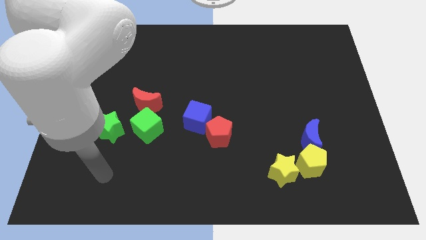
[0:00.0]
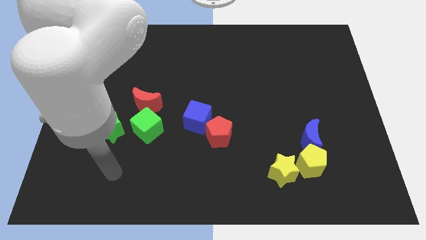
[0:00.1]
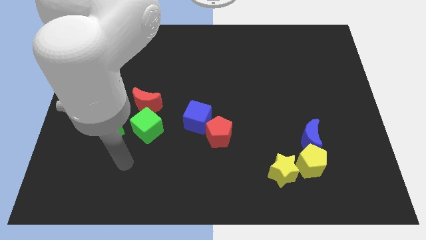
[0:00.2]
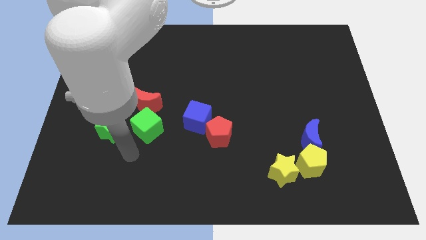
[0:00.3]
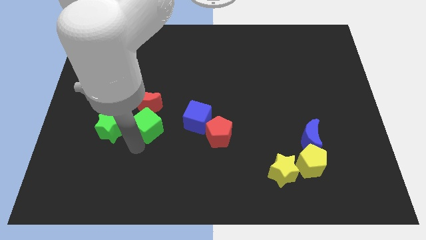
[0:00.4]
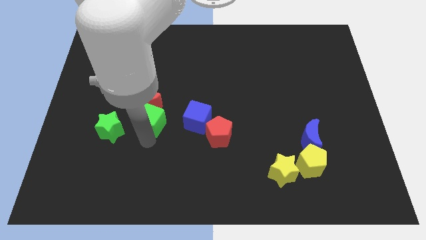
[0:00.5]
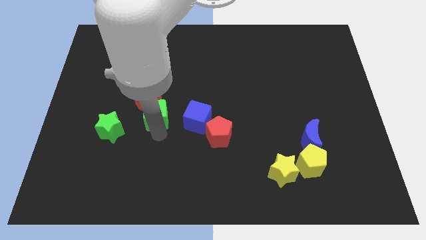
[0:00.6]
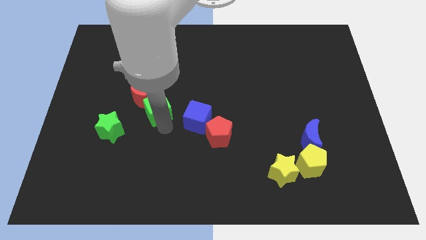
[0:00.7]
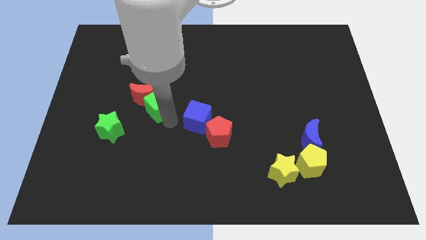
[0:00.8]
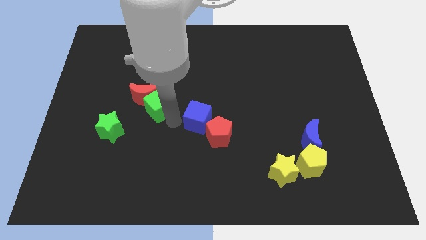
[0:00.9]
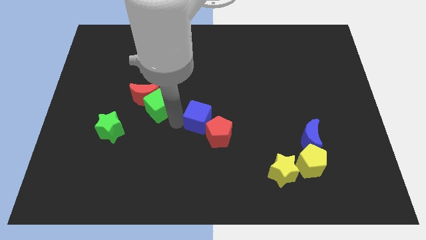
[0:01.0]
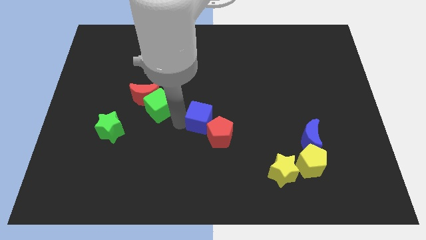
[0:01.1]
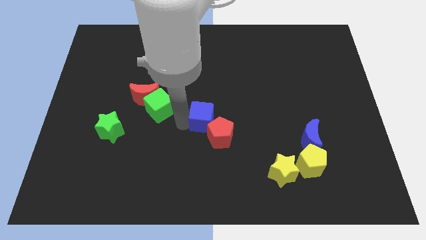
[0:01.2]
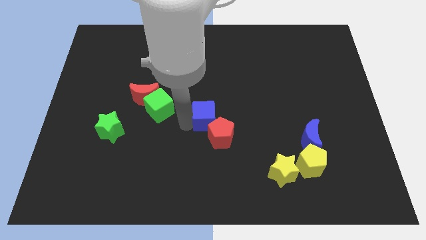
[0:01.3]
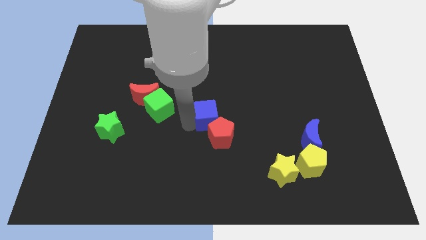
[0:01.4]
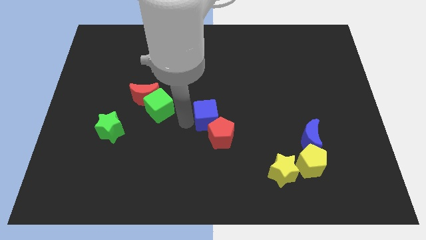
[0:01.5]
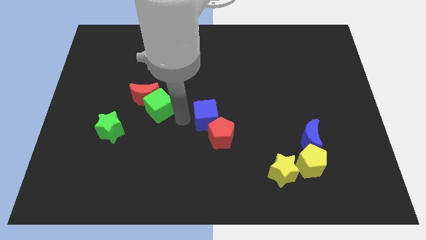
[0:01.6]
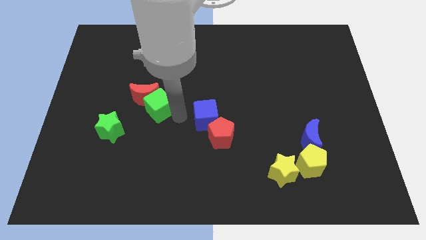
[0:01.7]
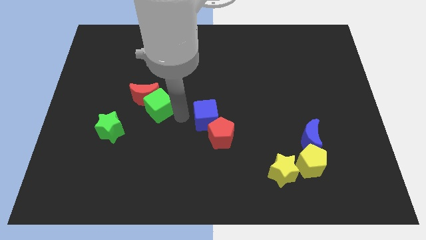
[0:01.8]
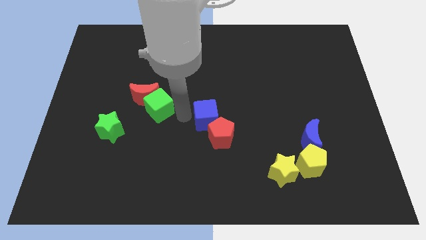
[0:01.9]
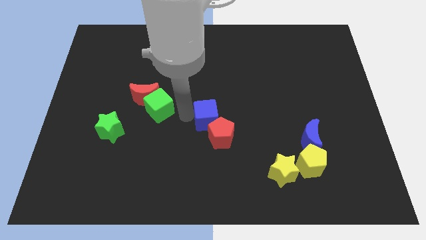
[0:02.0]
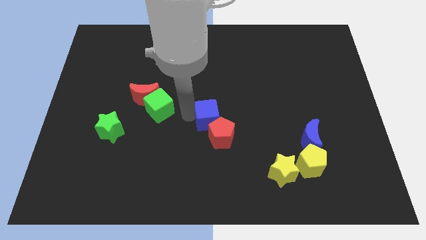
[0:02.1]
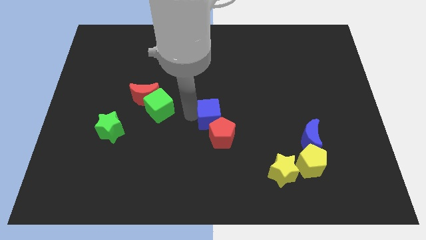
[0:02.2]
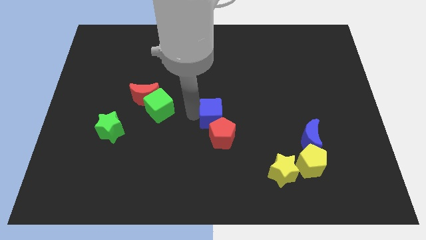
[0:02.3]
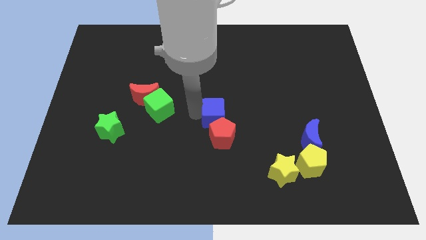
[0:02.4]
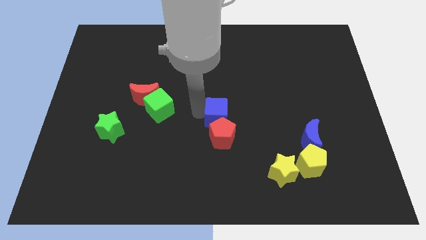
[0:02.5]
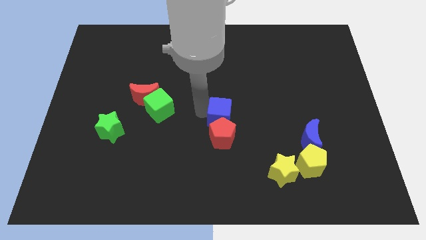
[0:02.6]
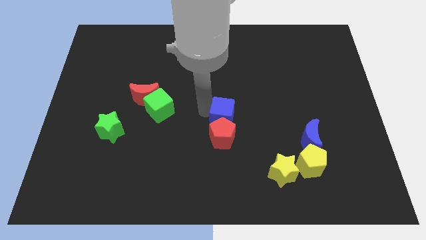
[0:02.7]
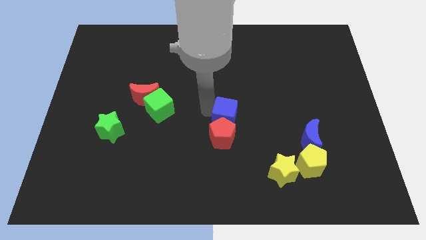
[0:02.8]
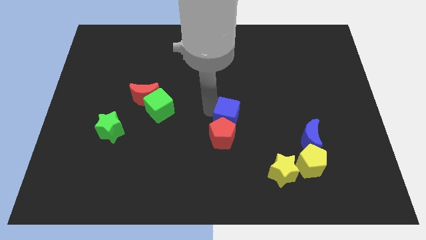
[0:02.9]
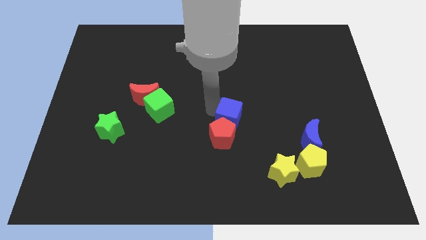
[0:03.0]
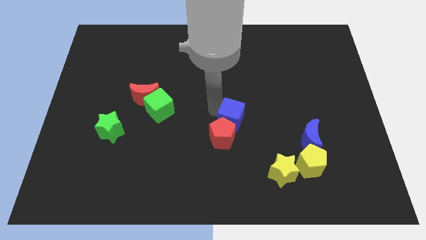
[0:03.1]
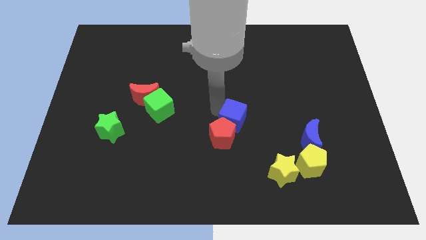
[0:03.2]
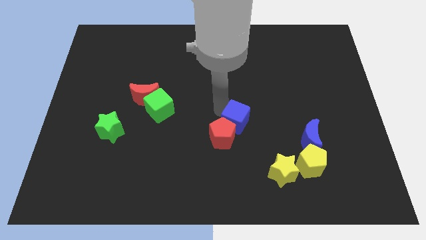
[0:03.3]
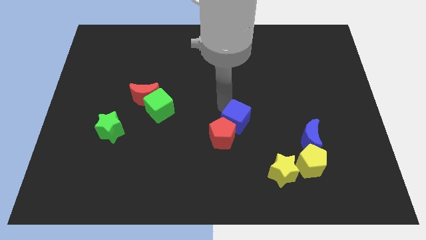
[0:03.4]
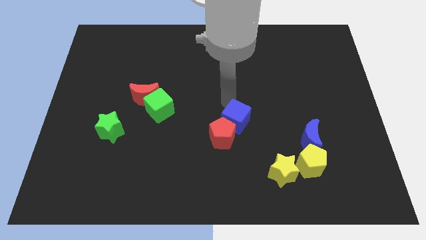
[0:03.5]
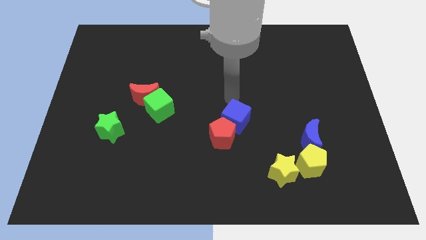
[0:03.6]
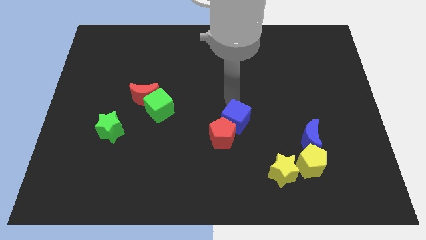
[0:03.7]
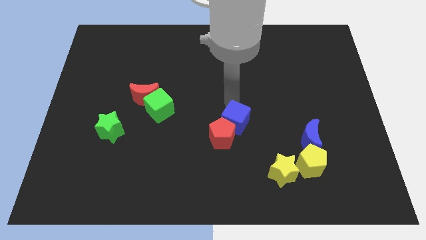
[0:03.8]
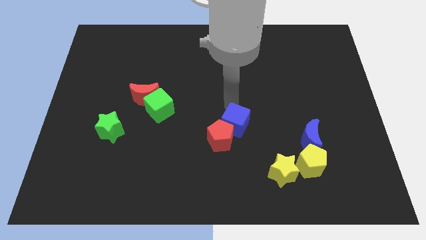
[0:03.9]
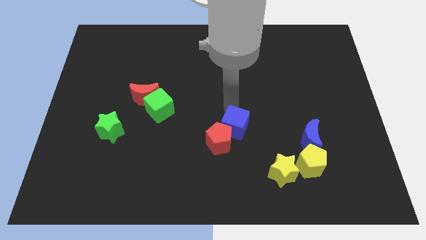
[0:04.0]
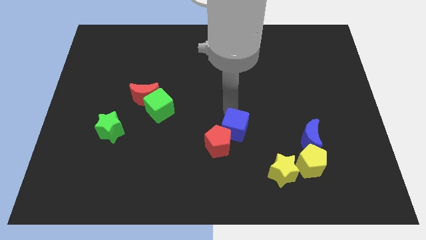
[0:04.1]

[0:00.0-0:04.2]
move the blue cube diagonally down and right slightly

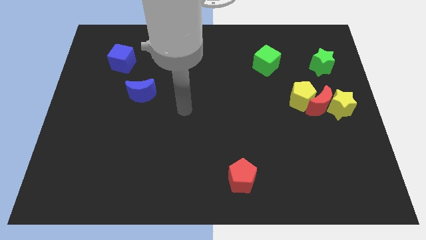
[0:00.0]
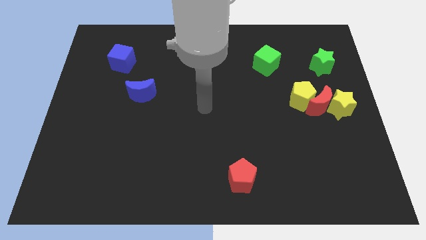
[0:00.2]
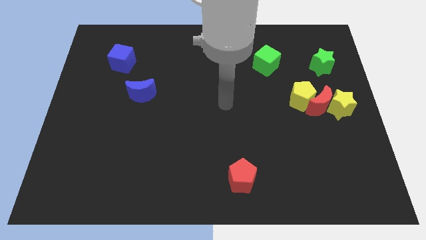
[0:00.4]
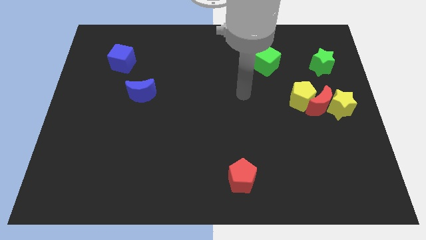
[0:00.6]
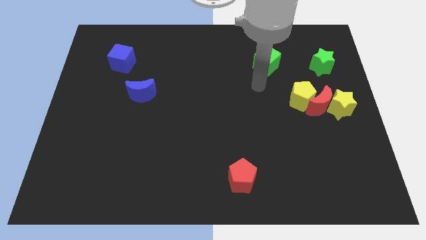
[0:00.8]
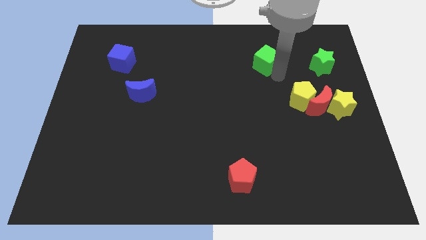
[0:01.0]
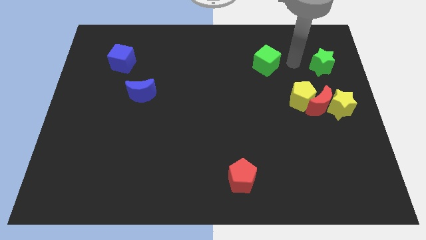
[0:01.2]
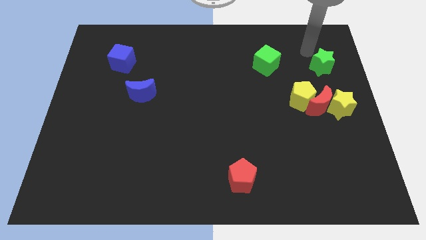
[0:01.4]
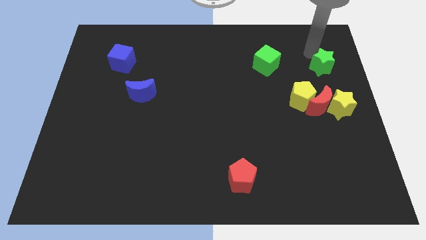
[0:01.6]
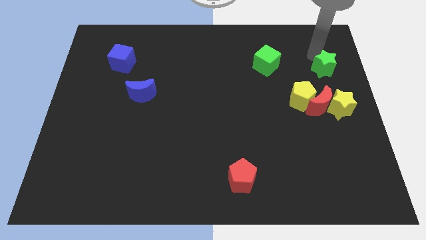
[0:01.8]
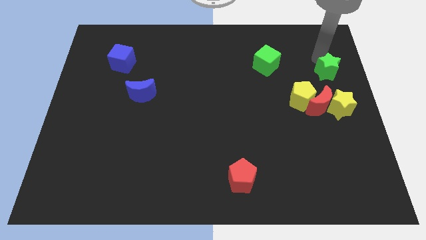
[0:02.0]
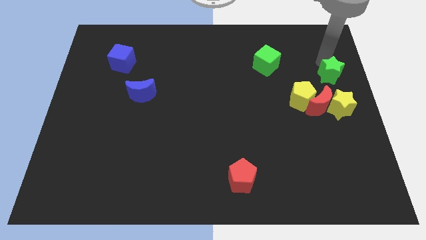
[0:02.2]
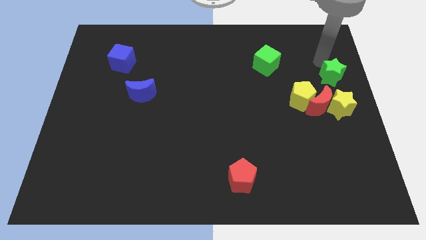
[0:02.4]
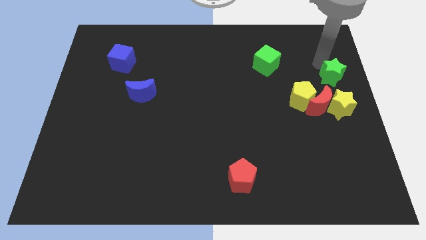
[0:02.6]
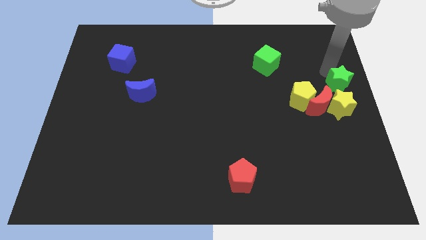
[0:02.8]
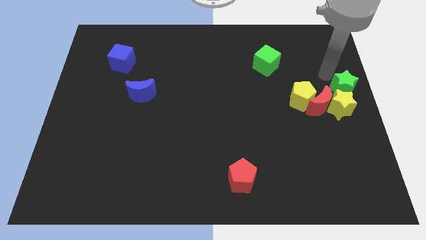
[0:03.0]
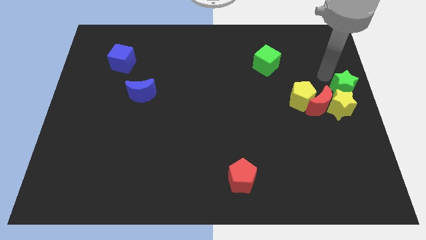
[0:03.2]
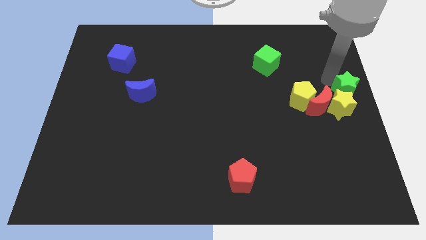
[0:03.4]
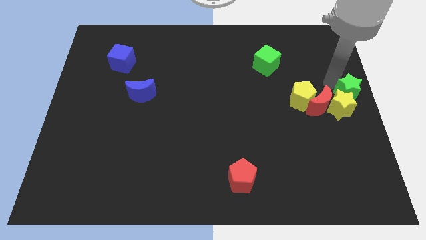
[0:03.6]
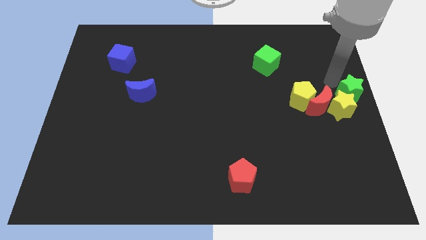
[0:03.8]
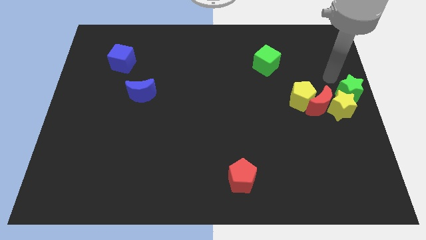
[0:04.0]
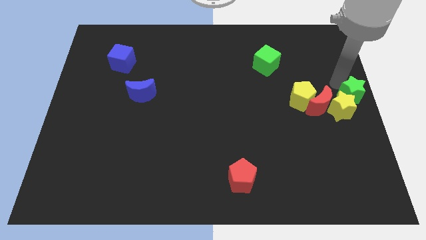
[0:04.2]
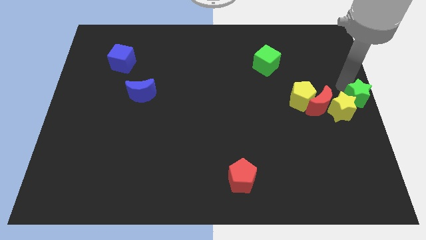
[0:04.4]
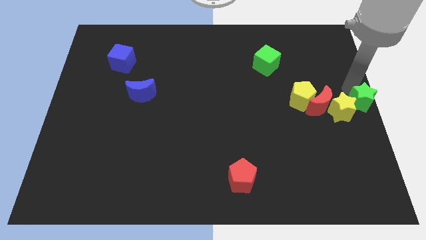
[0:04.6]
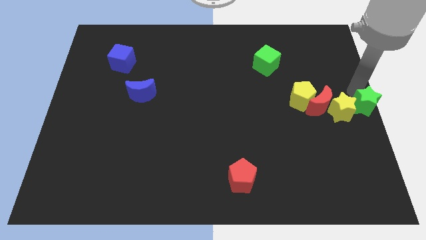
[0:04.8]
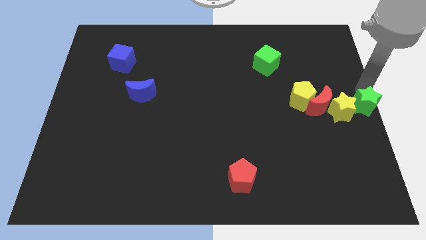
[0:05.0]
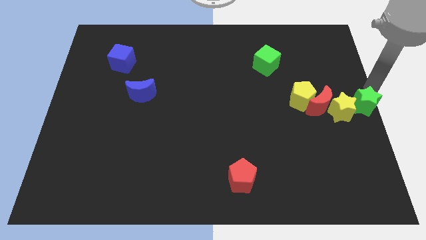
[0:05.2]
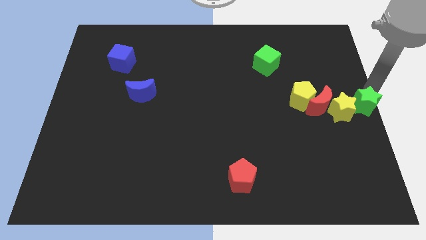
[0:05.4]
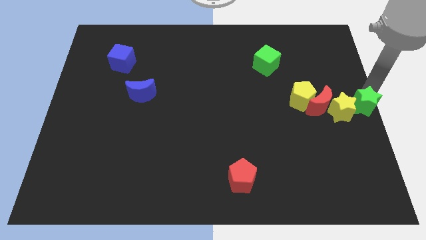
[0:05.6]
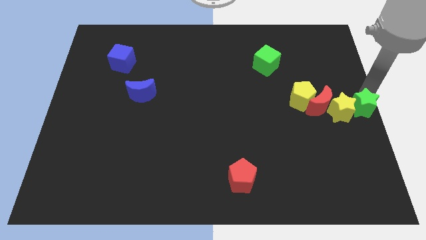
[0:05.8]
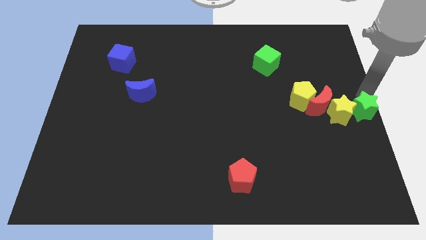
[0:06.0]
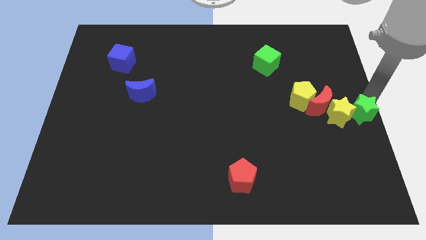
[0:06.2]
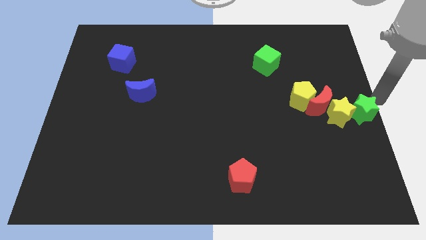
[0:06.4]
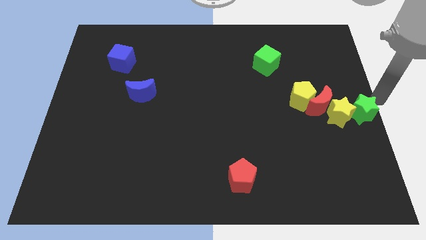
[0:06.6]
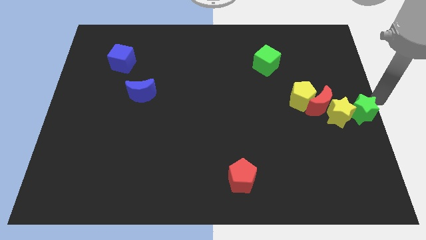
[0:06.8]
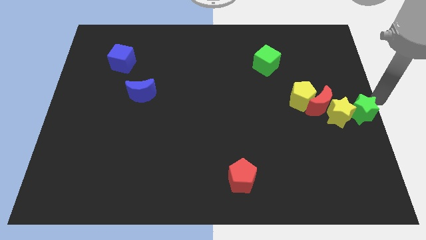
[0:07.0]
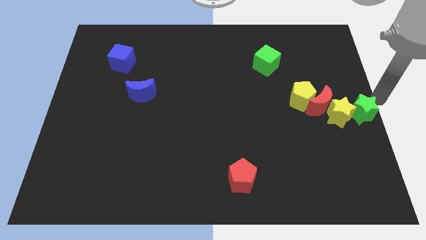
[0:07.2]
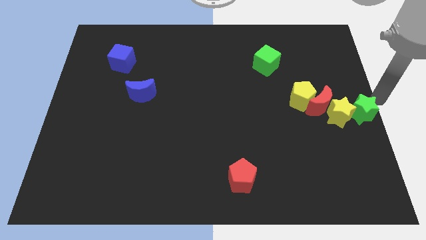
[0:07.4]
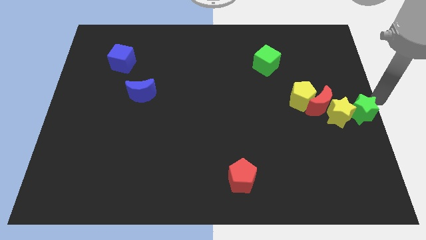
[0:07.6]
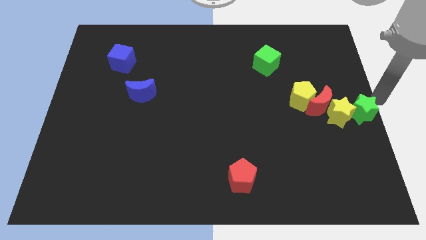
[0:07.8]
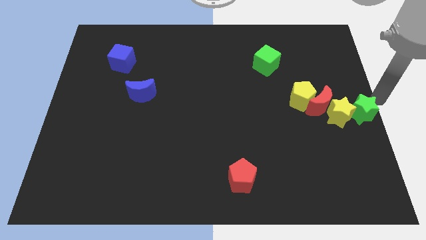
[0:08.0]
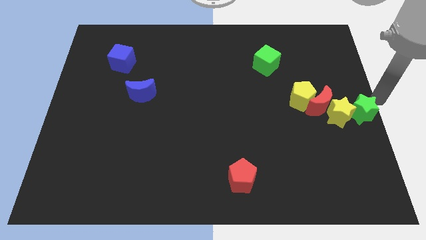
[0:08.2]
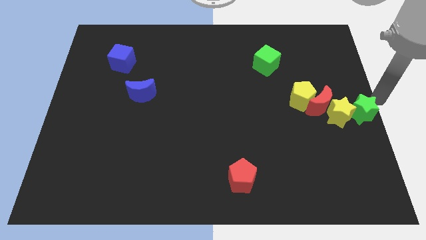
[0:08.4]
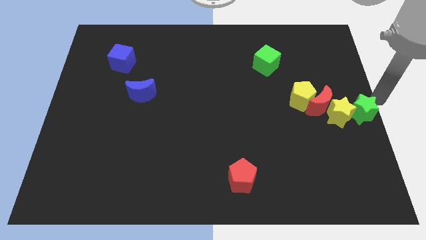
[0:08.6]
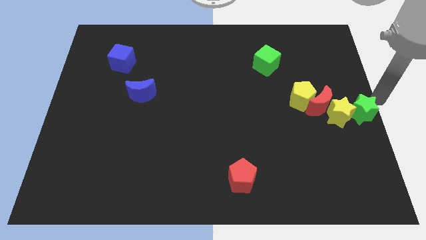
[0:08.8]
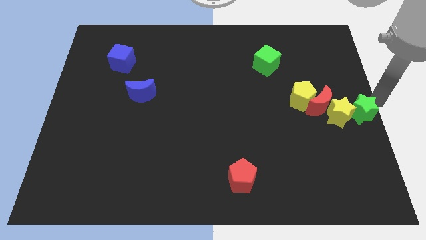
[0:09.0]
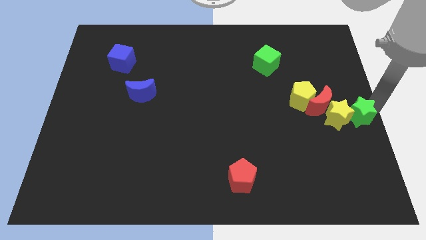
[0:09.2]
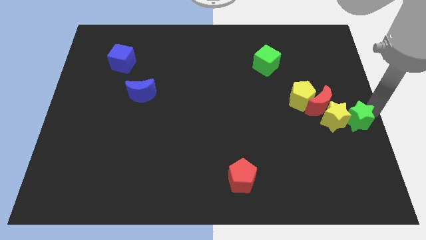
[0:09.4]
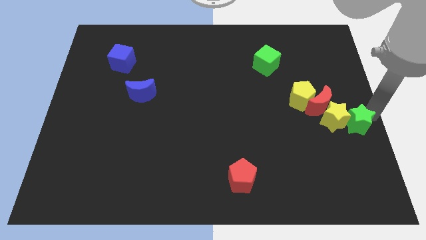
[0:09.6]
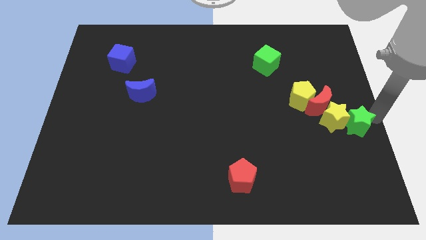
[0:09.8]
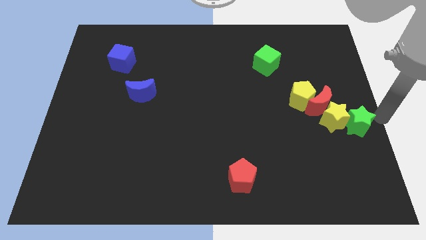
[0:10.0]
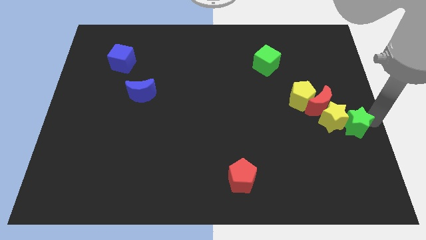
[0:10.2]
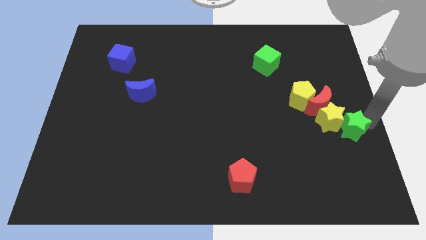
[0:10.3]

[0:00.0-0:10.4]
move the green star downwards
